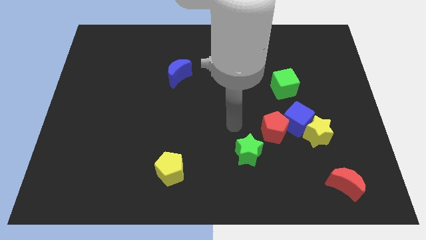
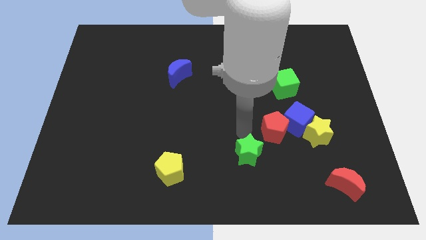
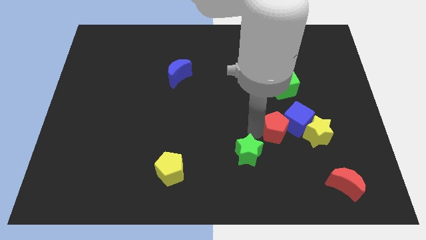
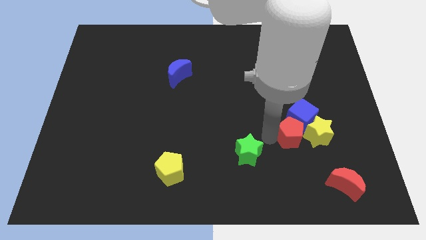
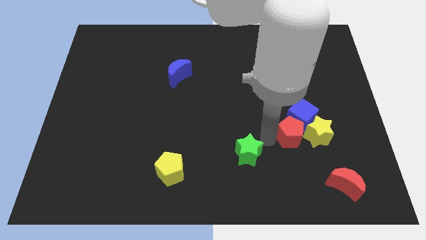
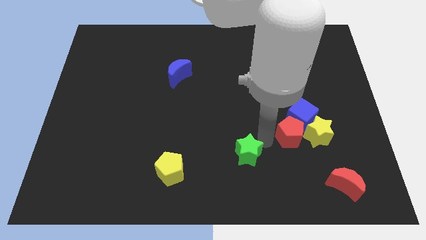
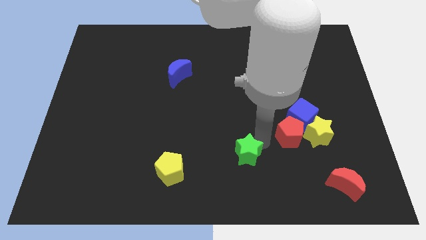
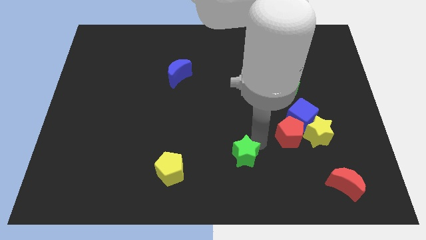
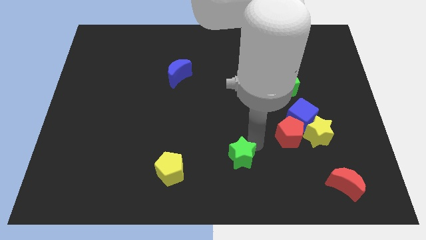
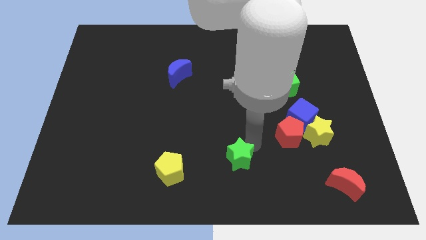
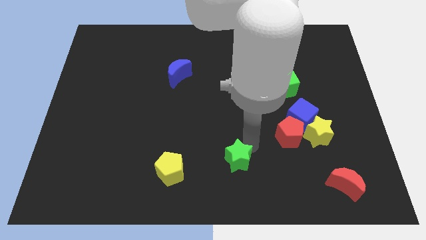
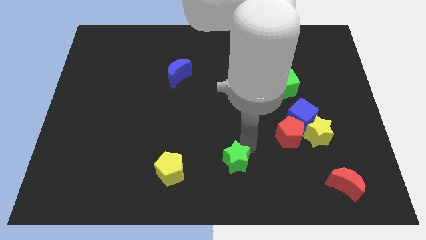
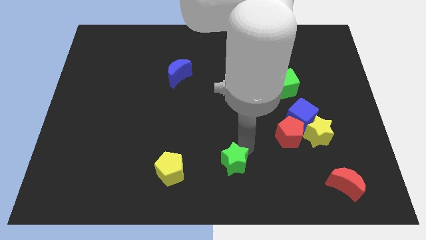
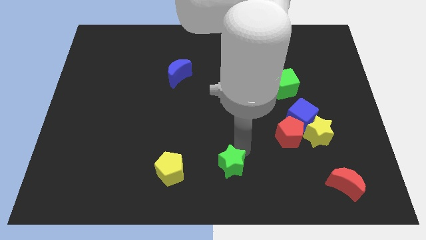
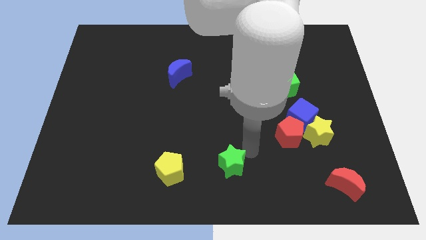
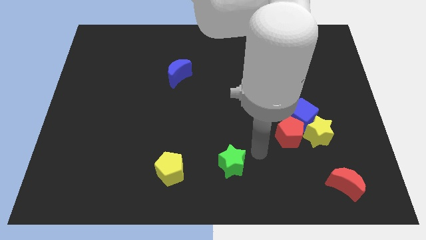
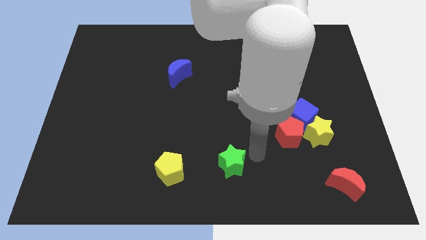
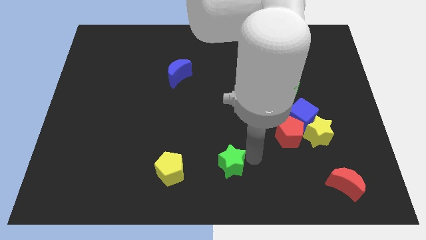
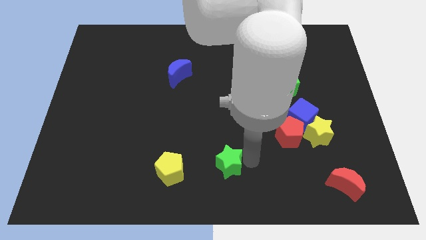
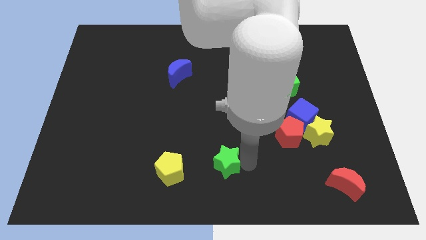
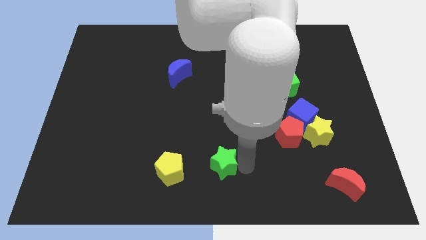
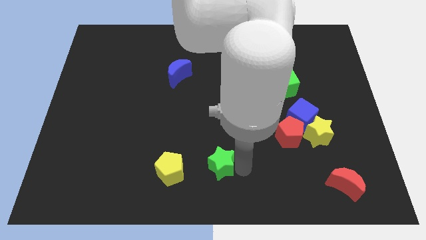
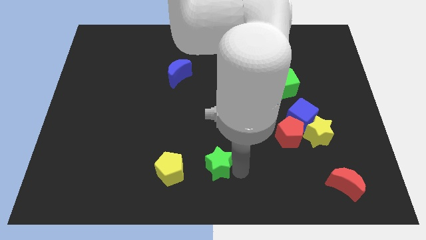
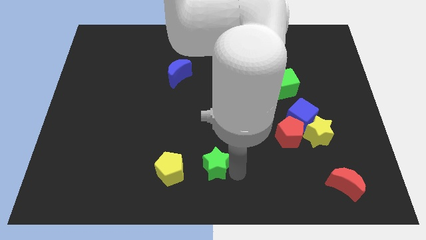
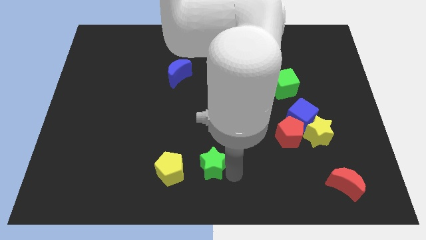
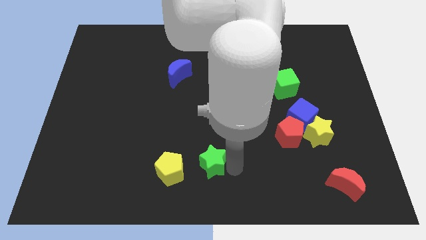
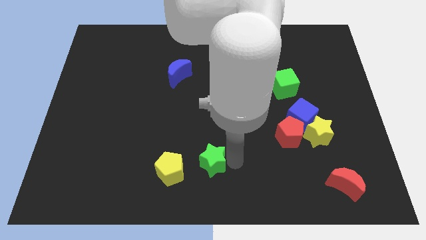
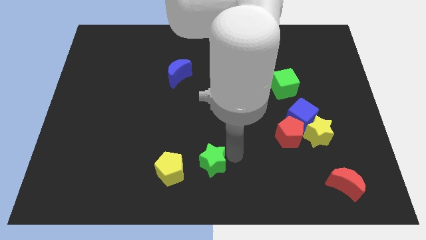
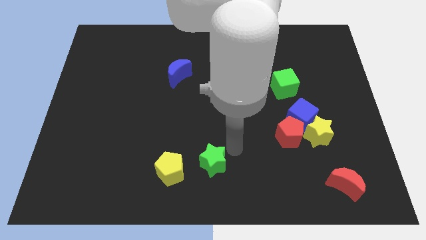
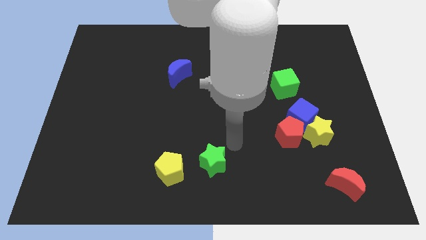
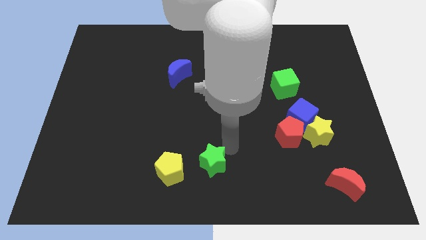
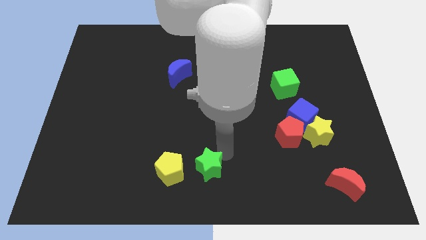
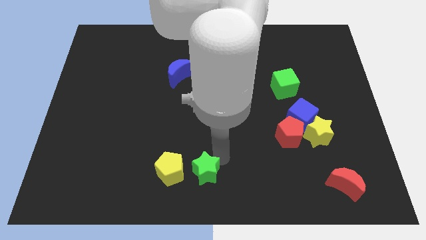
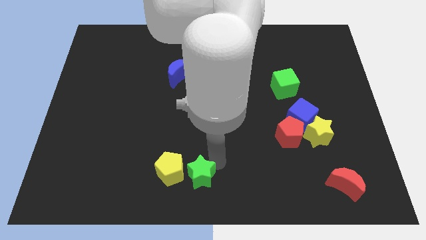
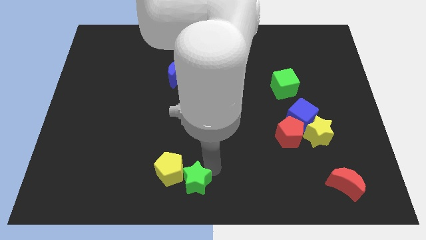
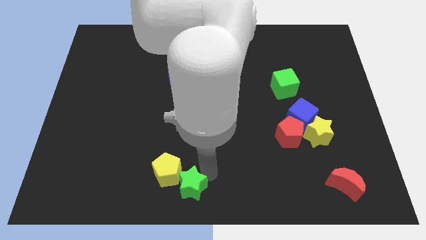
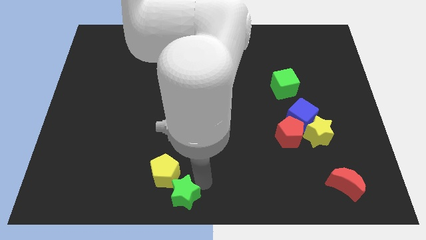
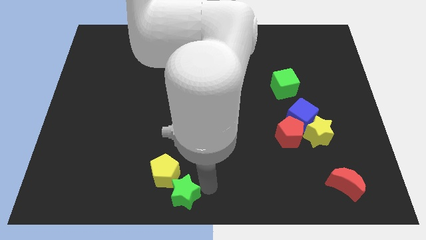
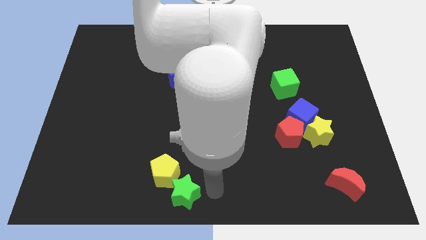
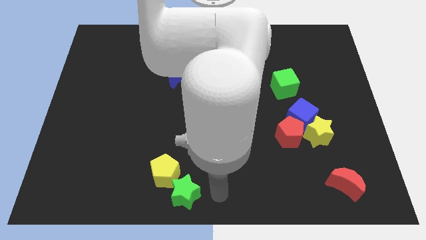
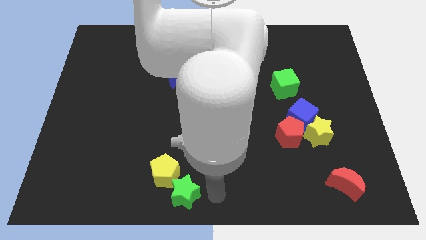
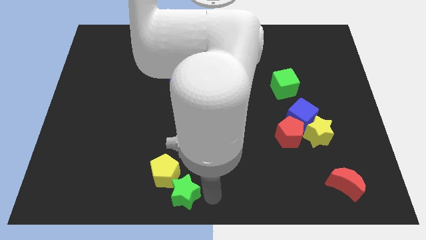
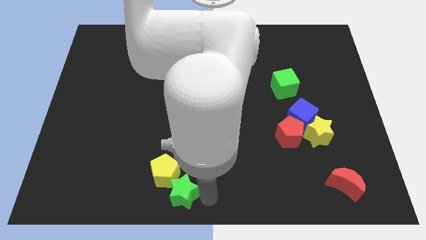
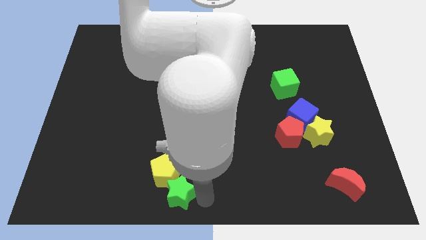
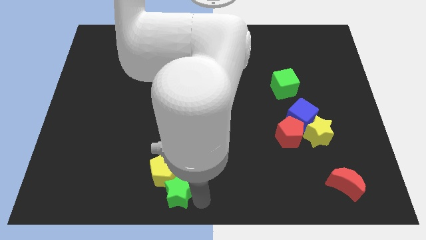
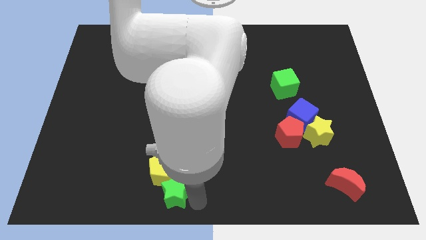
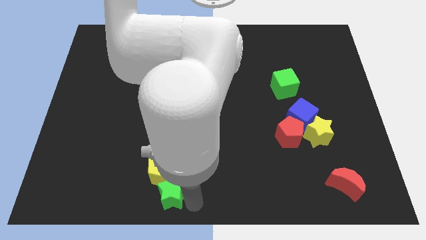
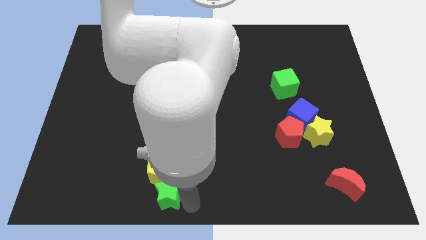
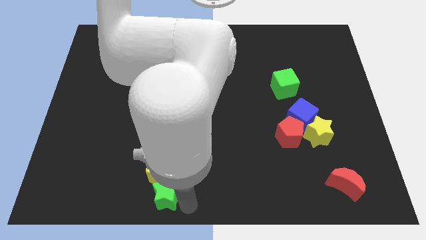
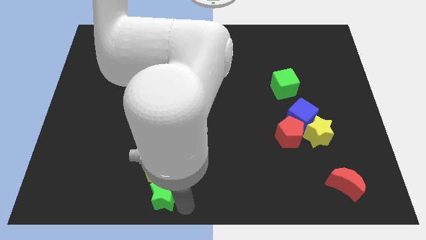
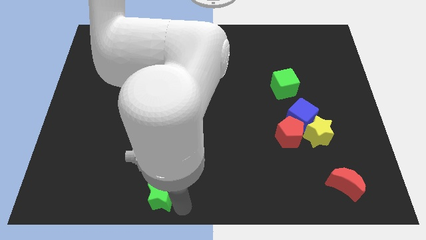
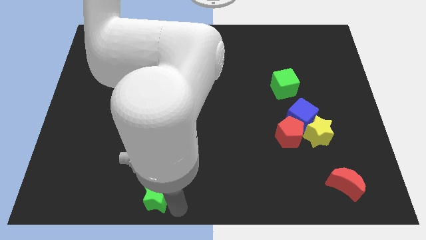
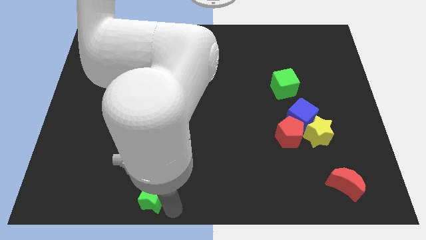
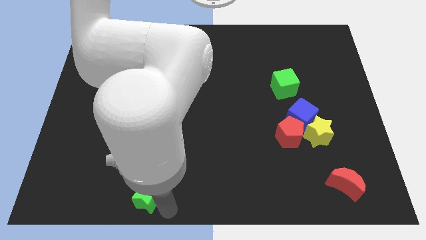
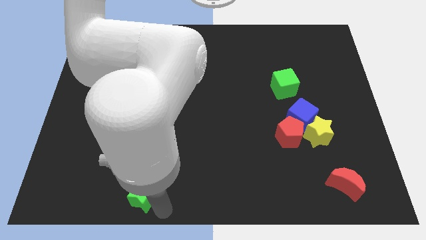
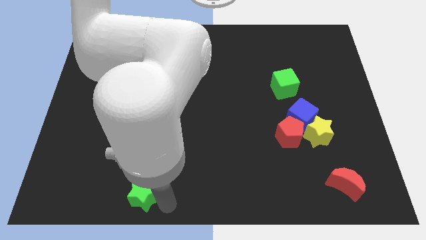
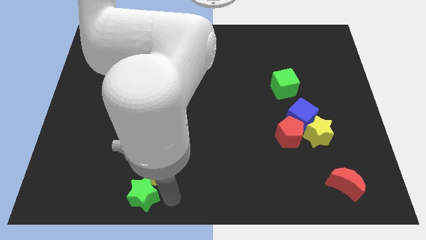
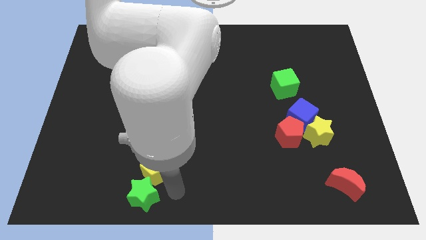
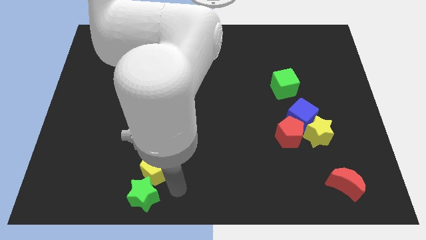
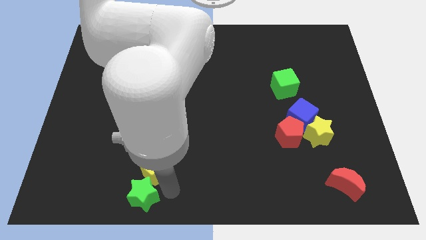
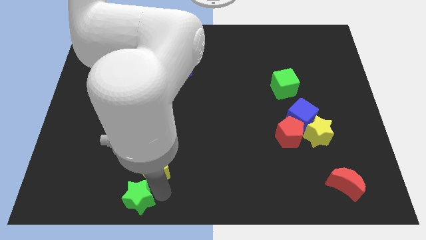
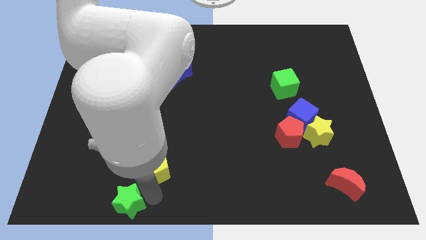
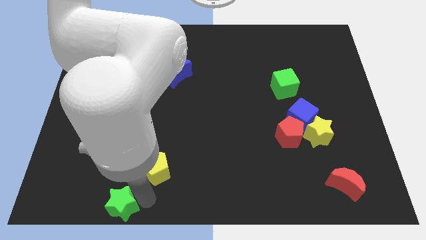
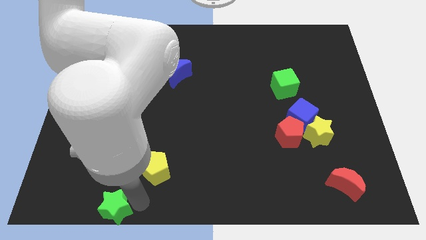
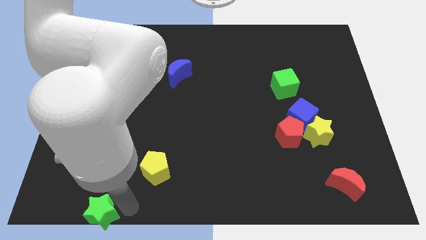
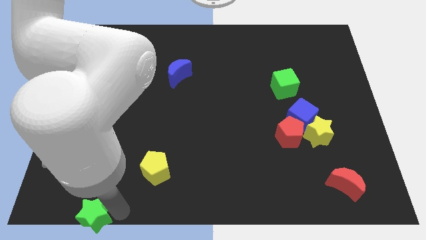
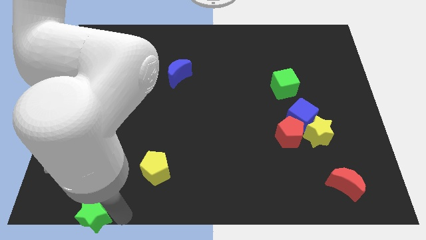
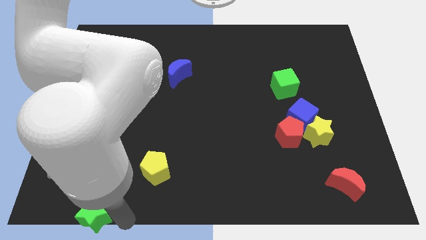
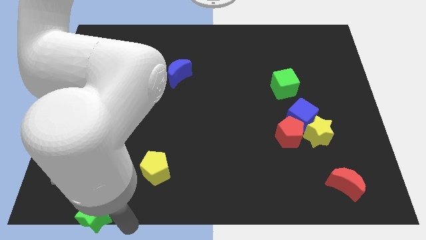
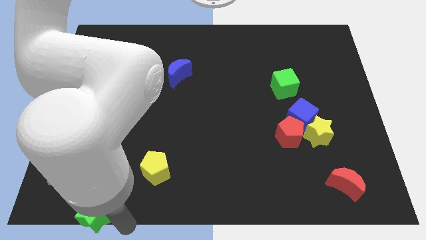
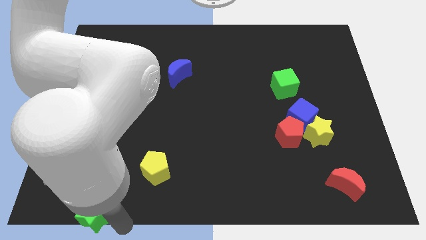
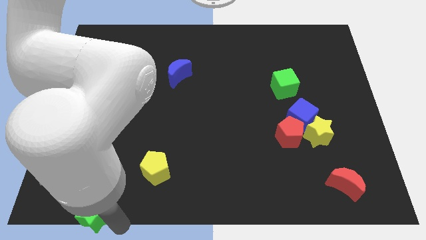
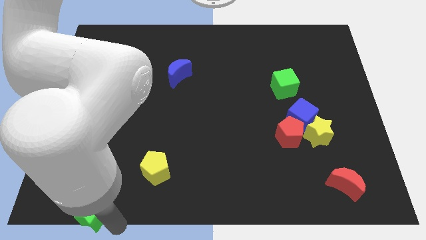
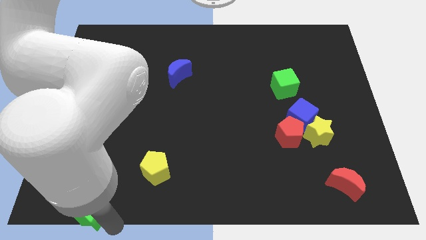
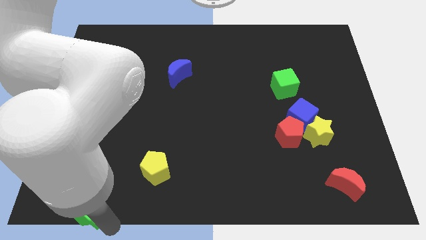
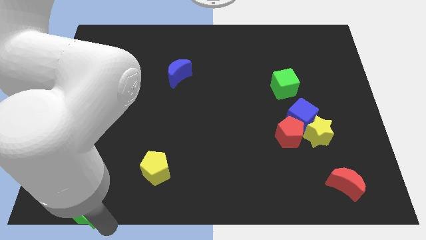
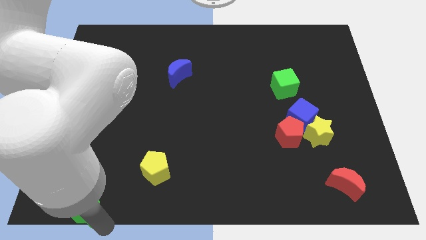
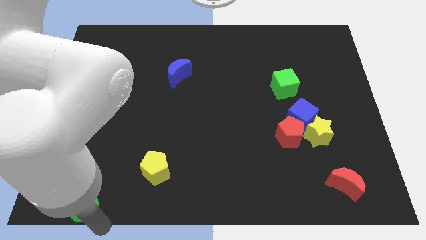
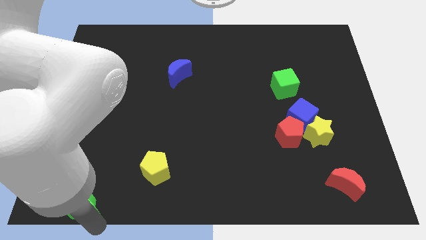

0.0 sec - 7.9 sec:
move the green star to the lower left corner
